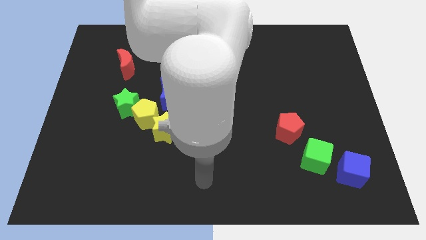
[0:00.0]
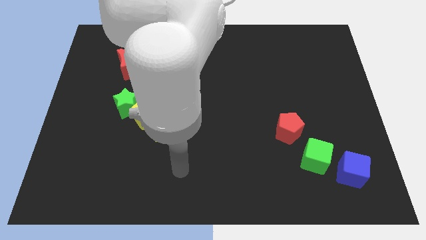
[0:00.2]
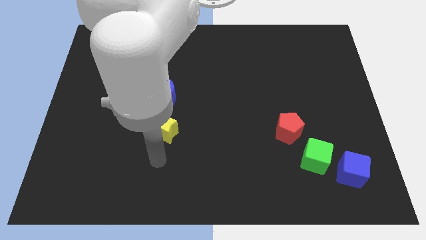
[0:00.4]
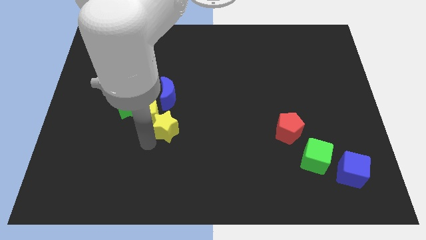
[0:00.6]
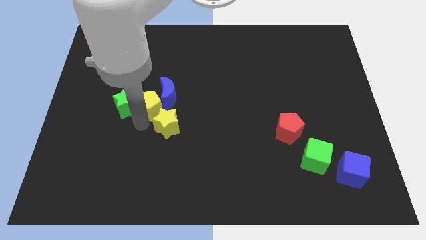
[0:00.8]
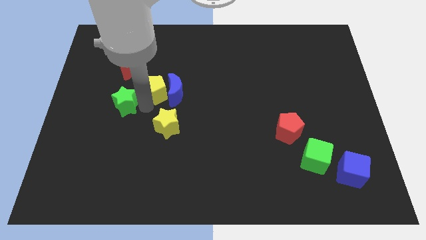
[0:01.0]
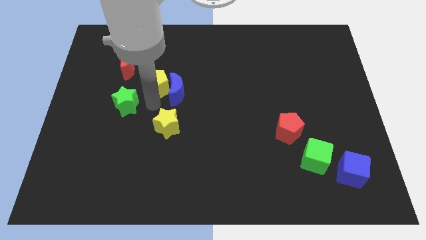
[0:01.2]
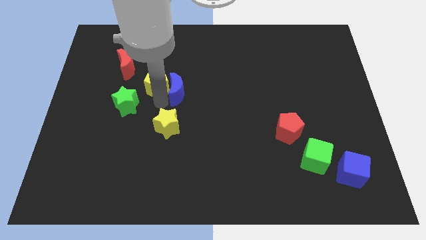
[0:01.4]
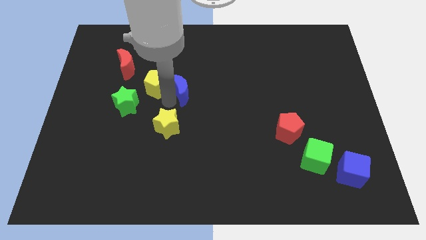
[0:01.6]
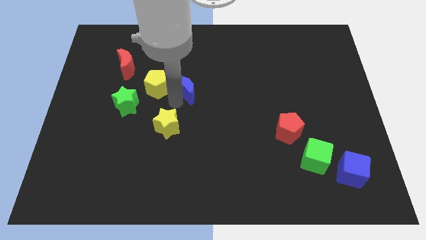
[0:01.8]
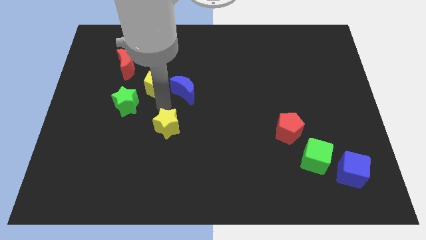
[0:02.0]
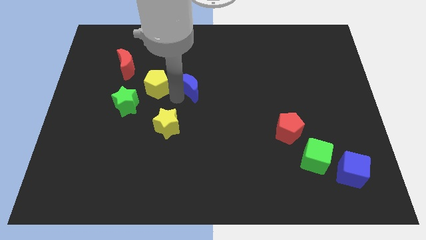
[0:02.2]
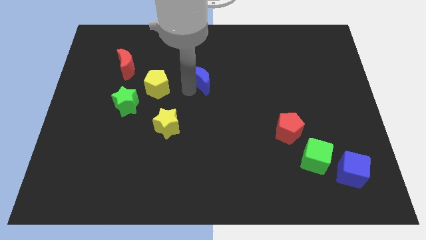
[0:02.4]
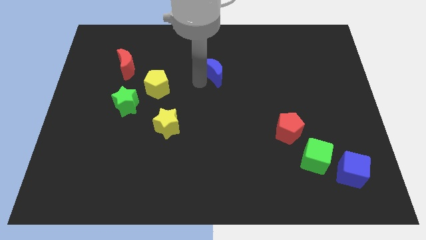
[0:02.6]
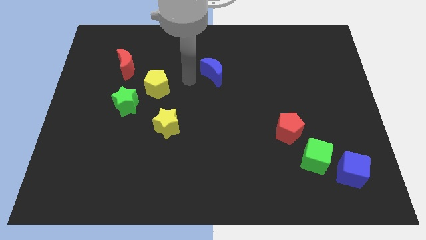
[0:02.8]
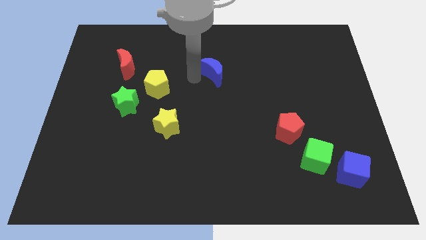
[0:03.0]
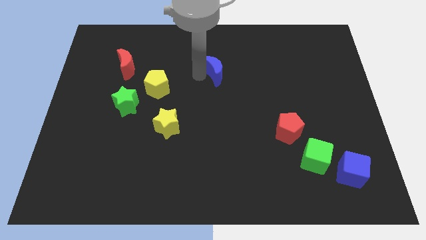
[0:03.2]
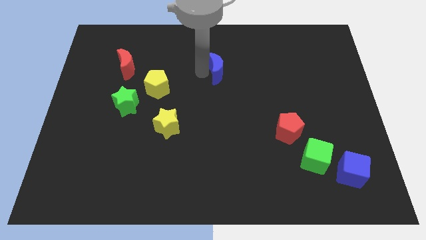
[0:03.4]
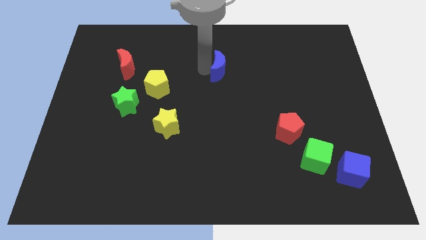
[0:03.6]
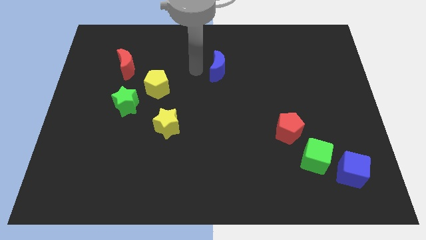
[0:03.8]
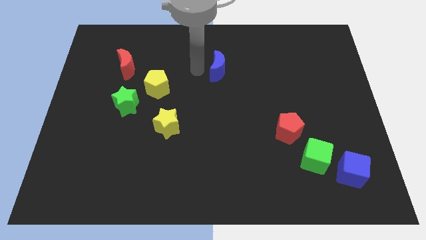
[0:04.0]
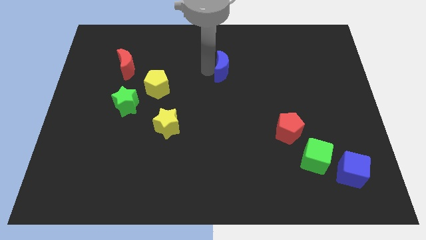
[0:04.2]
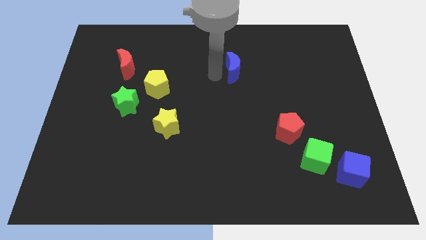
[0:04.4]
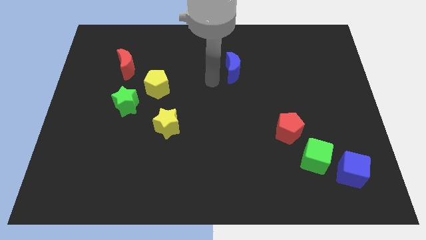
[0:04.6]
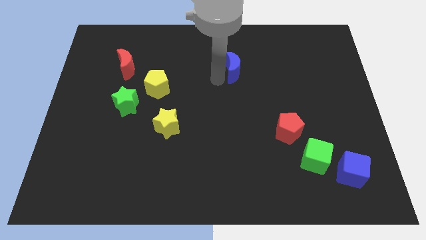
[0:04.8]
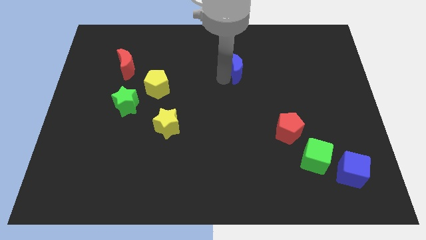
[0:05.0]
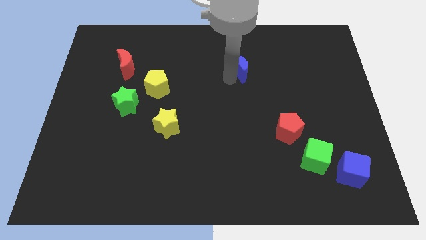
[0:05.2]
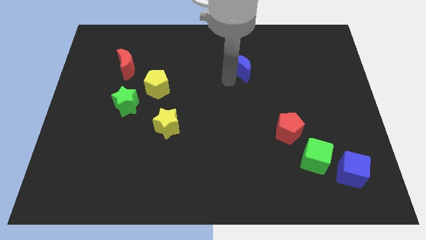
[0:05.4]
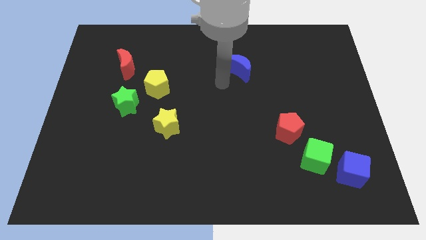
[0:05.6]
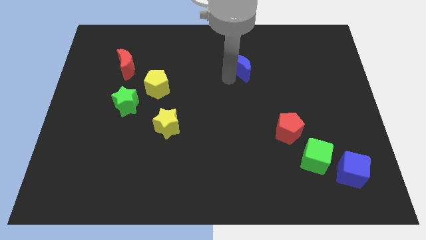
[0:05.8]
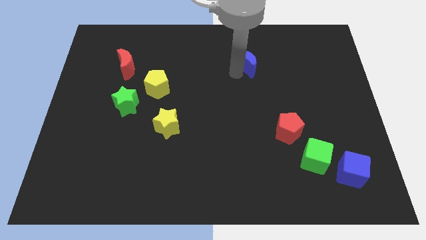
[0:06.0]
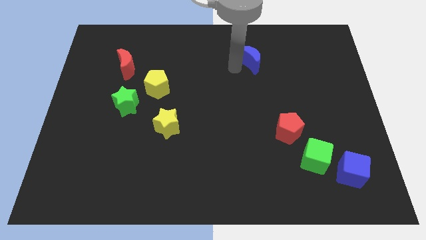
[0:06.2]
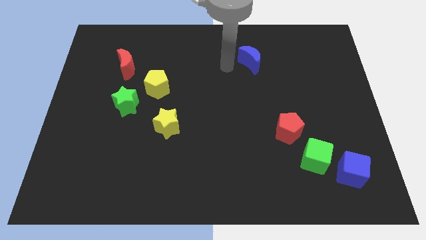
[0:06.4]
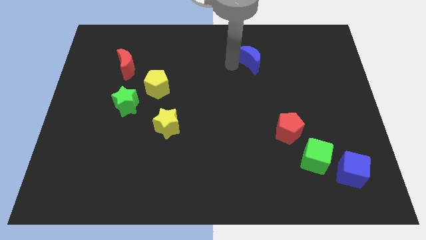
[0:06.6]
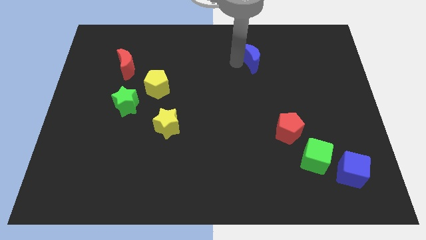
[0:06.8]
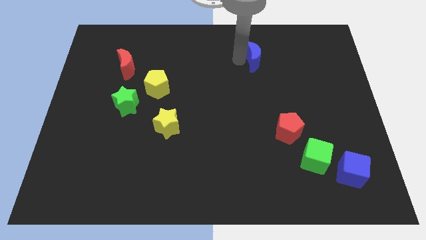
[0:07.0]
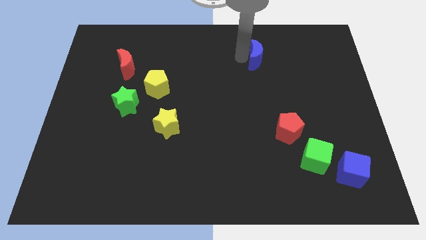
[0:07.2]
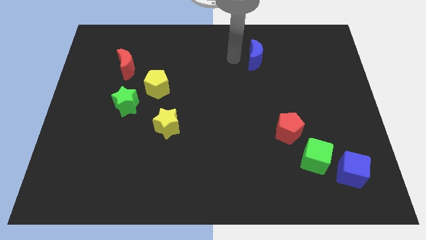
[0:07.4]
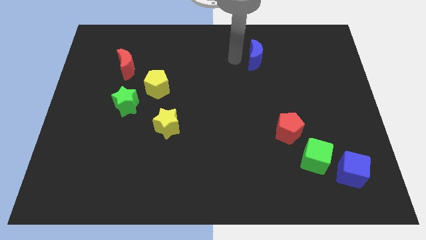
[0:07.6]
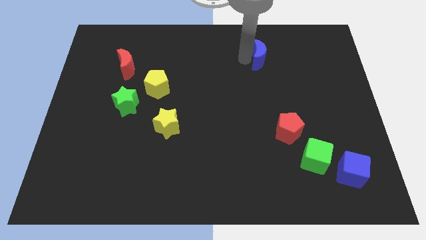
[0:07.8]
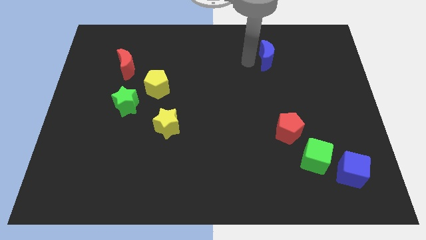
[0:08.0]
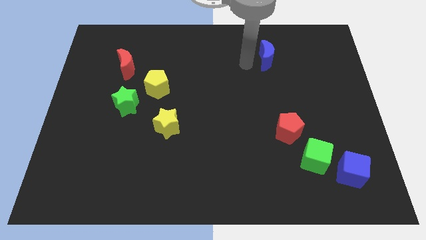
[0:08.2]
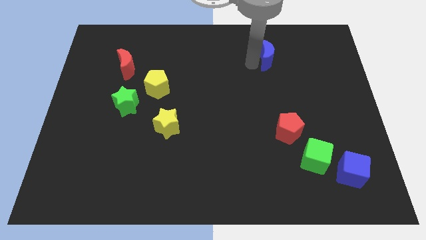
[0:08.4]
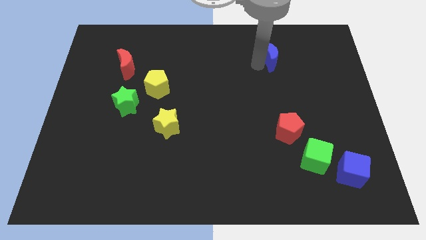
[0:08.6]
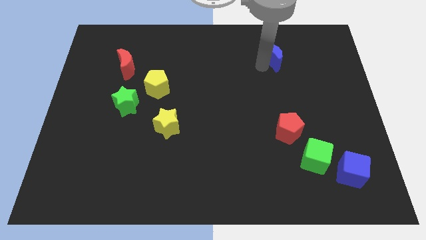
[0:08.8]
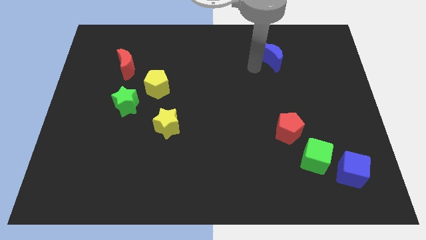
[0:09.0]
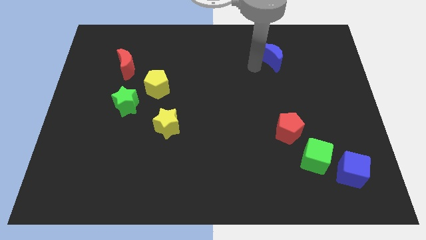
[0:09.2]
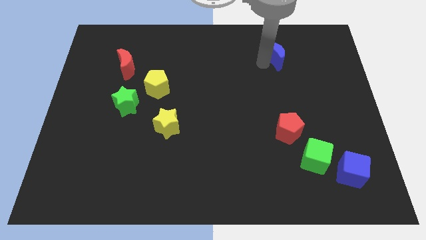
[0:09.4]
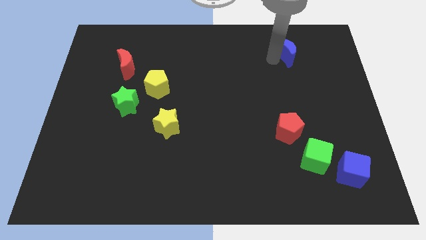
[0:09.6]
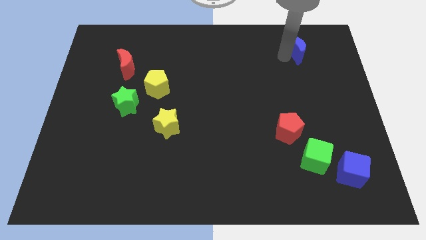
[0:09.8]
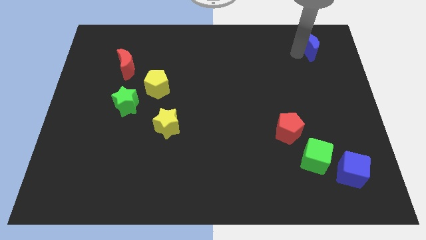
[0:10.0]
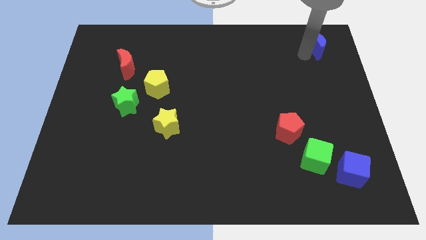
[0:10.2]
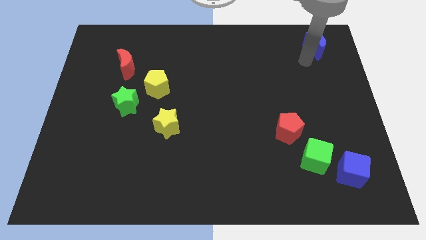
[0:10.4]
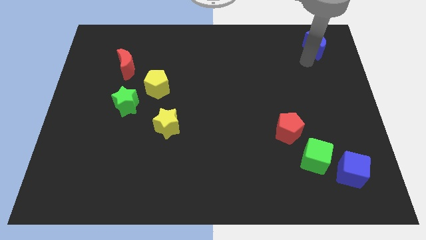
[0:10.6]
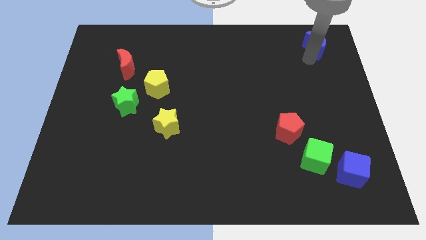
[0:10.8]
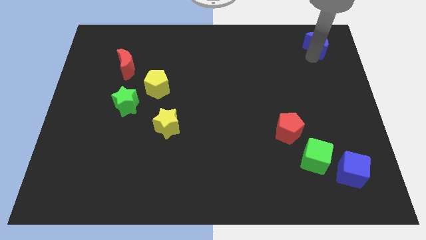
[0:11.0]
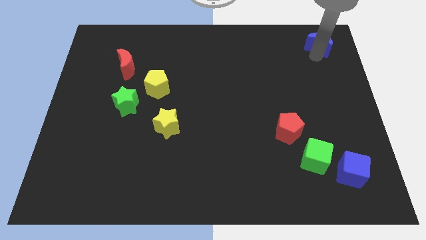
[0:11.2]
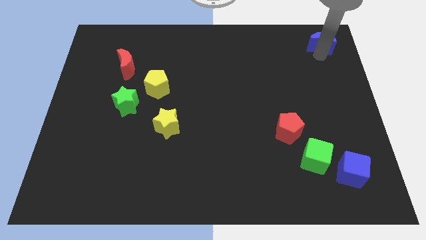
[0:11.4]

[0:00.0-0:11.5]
move the blue moon to the upper right corner

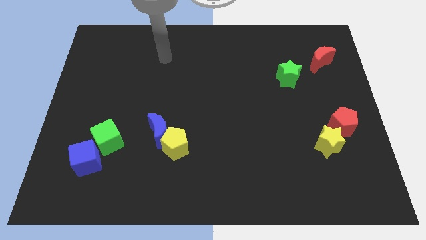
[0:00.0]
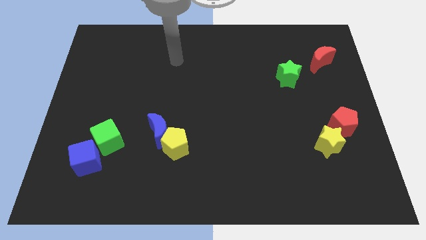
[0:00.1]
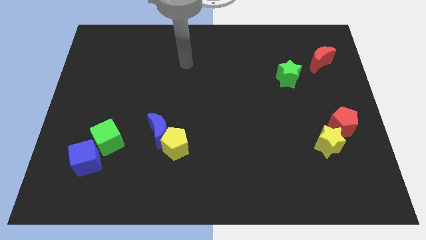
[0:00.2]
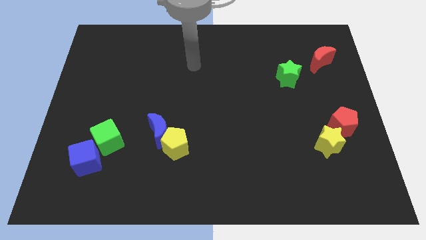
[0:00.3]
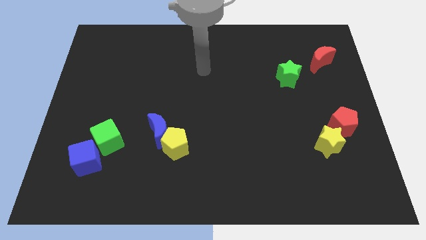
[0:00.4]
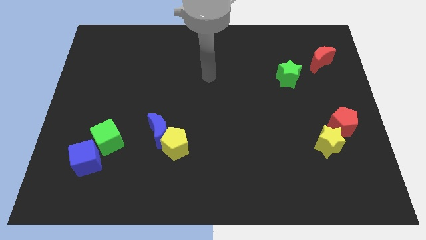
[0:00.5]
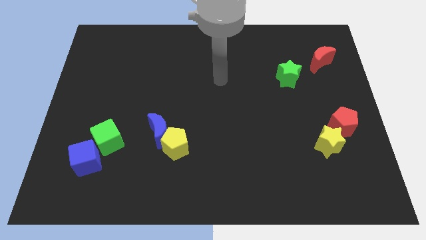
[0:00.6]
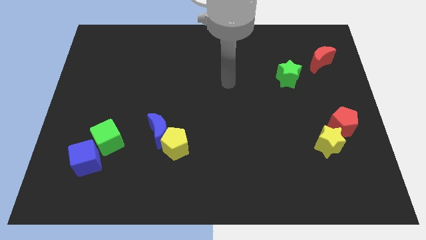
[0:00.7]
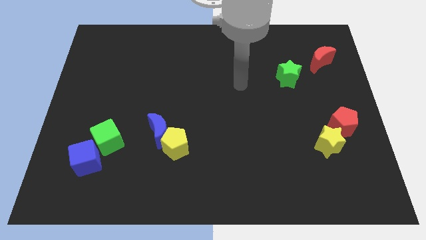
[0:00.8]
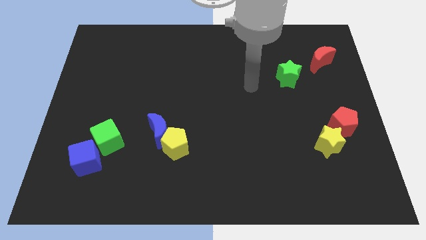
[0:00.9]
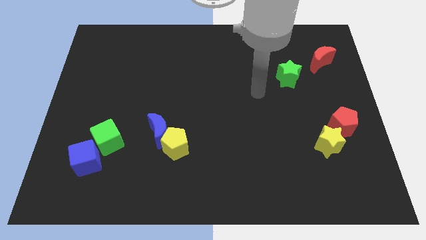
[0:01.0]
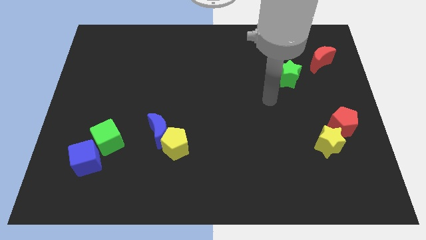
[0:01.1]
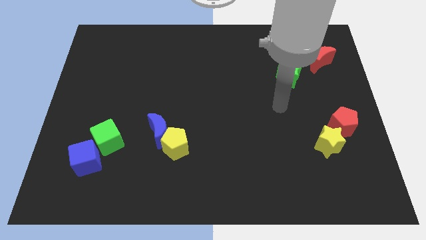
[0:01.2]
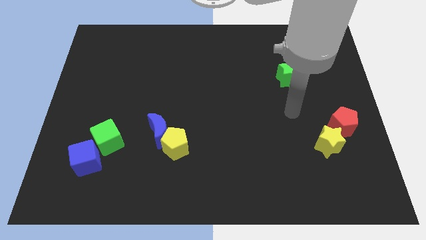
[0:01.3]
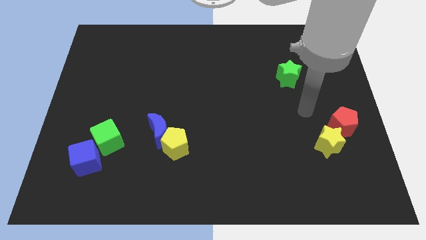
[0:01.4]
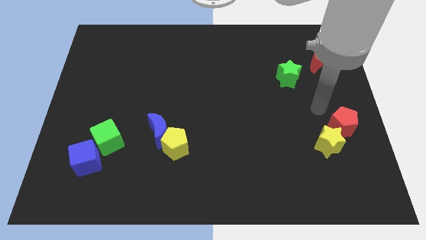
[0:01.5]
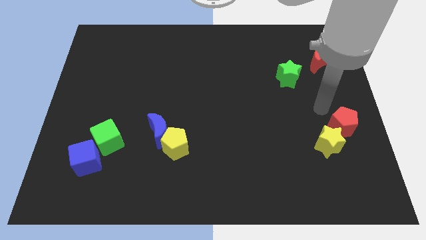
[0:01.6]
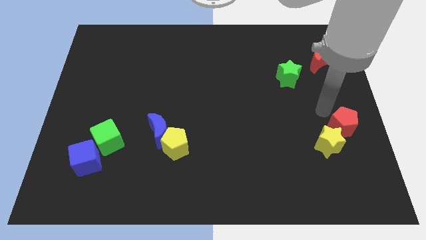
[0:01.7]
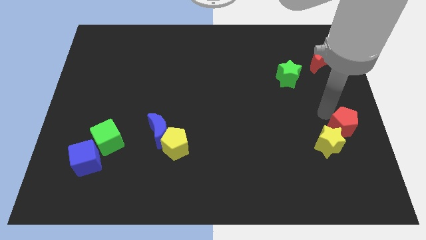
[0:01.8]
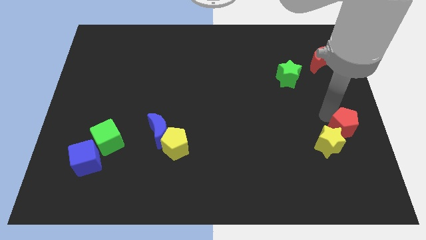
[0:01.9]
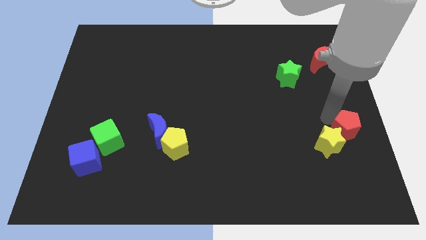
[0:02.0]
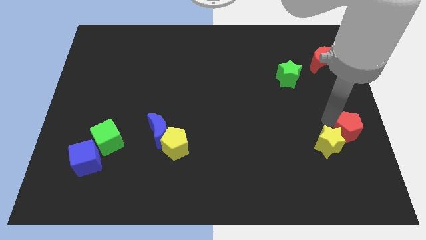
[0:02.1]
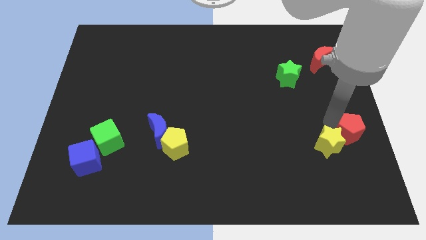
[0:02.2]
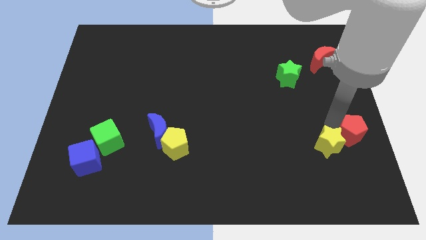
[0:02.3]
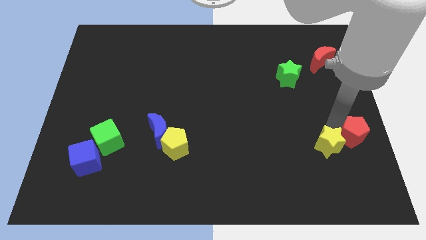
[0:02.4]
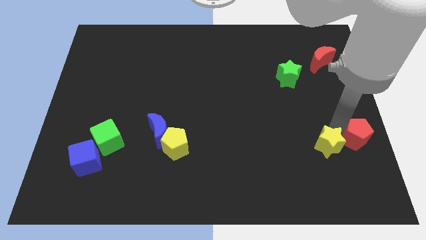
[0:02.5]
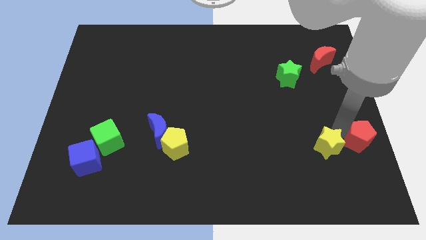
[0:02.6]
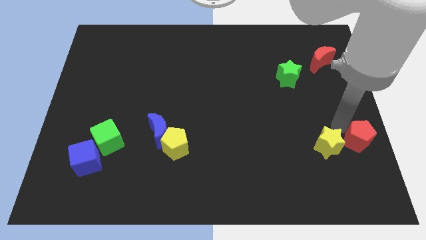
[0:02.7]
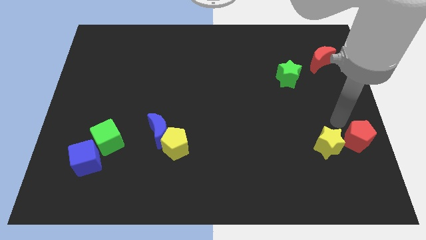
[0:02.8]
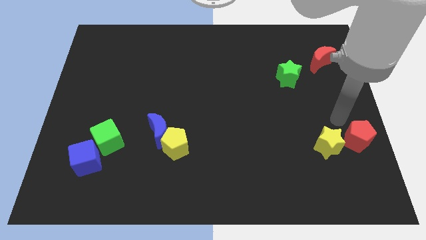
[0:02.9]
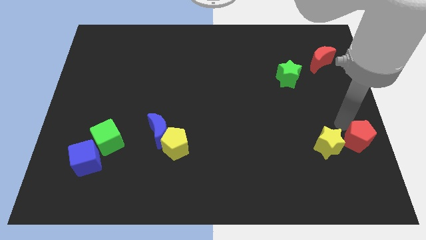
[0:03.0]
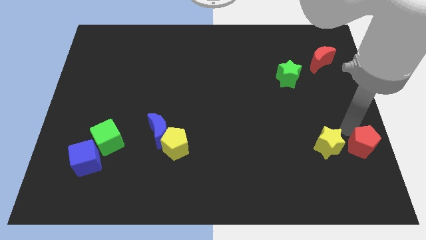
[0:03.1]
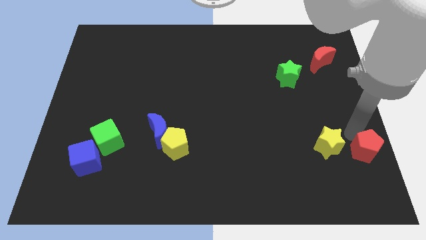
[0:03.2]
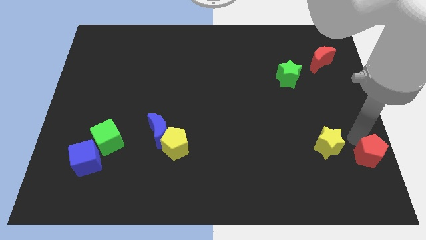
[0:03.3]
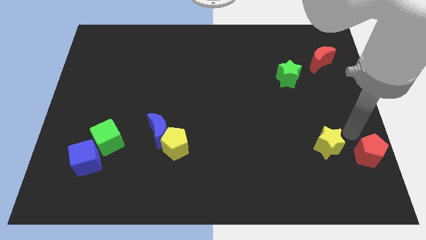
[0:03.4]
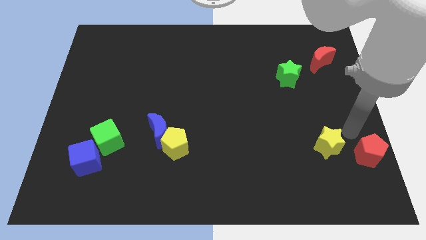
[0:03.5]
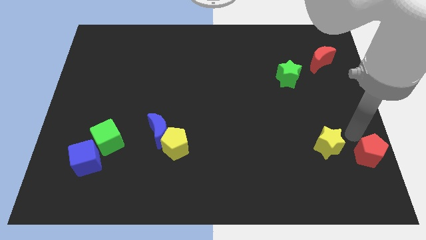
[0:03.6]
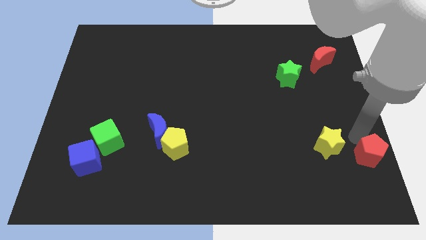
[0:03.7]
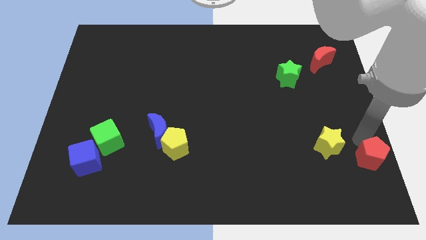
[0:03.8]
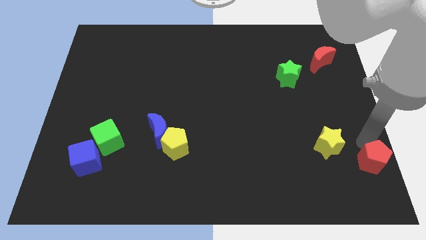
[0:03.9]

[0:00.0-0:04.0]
push the red pentagon to the bottom right of the board
